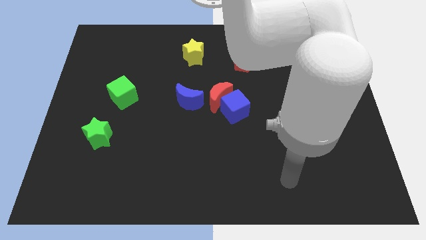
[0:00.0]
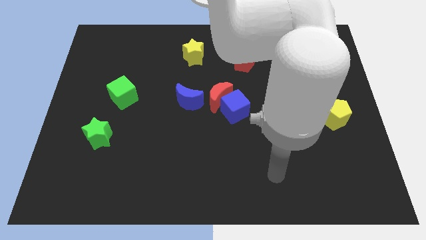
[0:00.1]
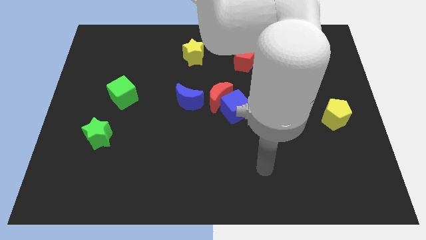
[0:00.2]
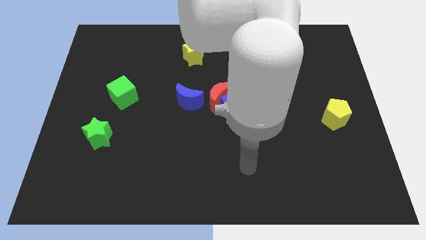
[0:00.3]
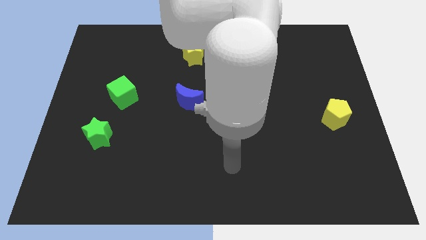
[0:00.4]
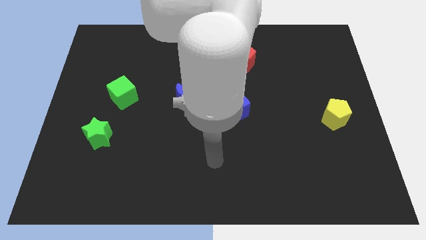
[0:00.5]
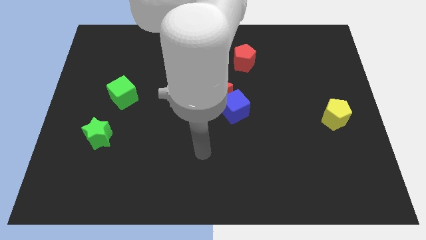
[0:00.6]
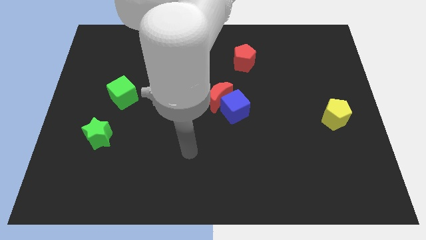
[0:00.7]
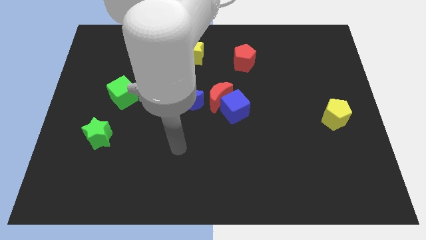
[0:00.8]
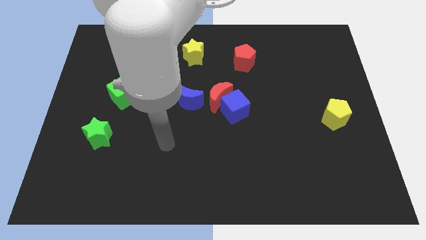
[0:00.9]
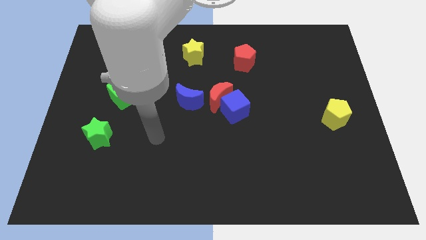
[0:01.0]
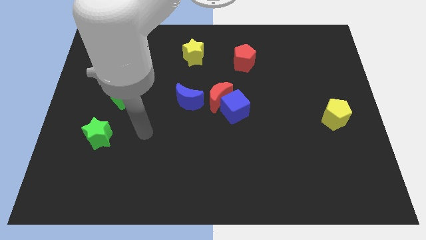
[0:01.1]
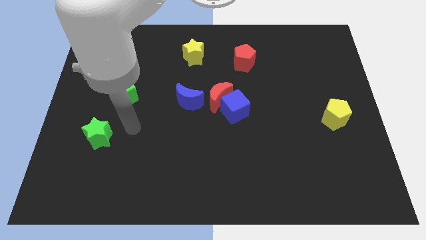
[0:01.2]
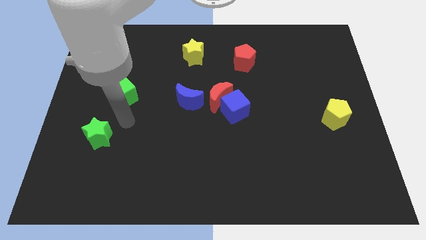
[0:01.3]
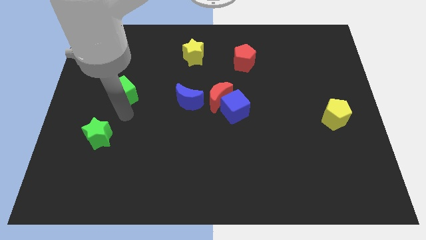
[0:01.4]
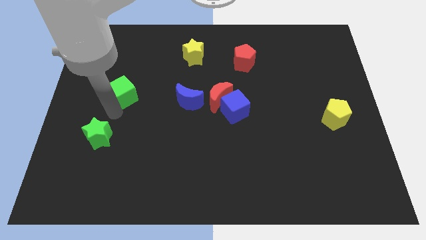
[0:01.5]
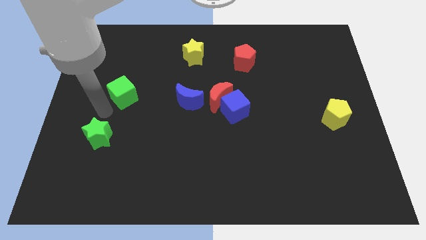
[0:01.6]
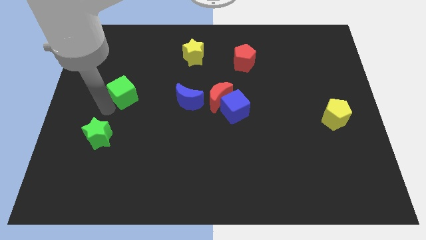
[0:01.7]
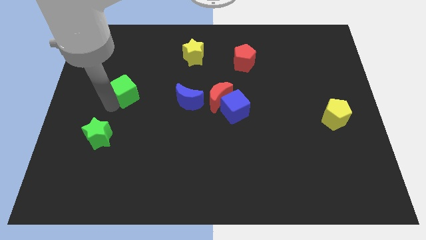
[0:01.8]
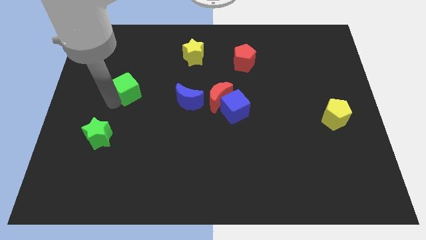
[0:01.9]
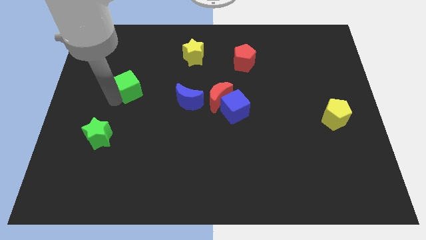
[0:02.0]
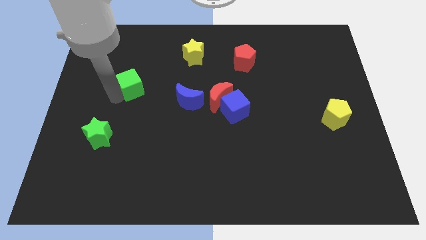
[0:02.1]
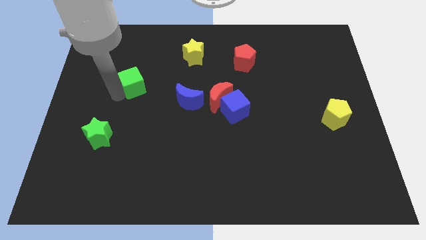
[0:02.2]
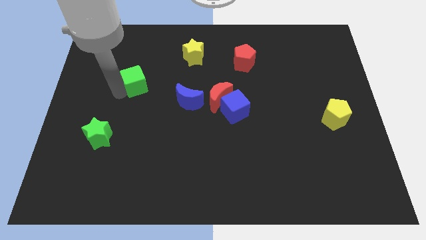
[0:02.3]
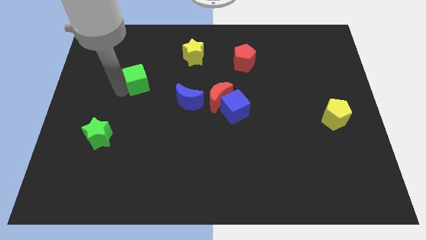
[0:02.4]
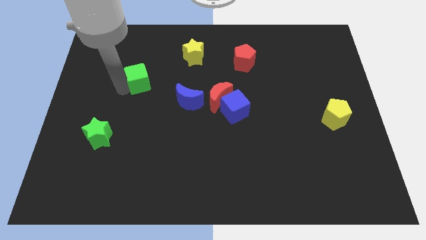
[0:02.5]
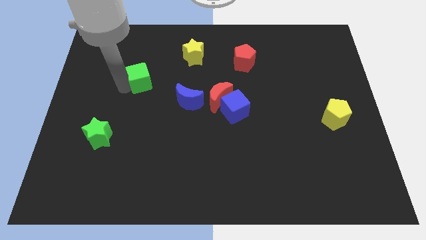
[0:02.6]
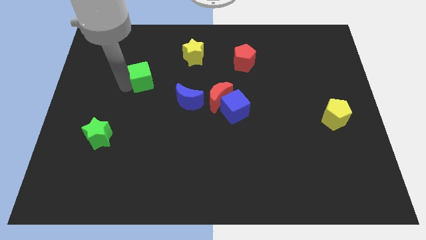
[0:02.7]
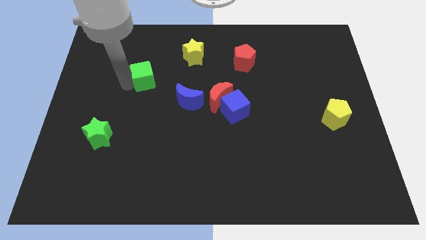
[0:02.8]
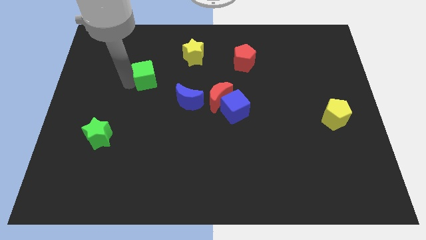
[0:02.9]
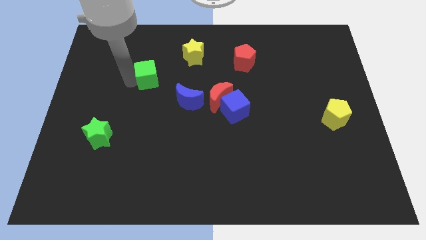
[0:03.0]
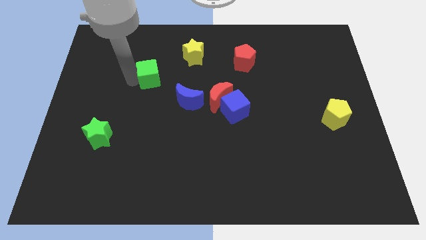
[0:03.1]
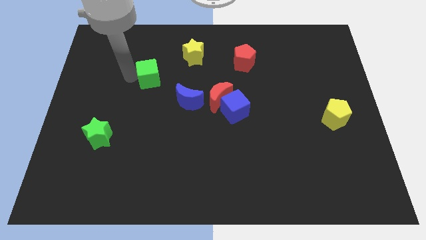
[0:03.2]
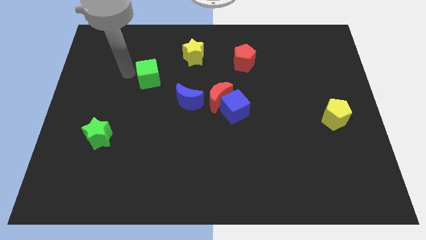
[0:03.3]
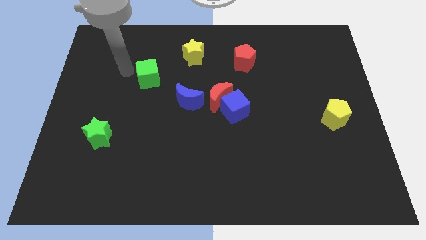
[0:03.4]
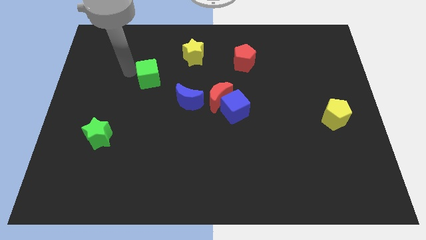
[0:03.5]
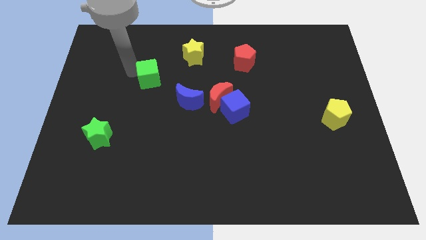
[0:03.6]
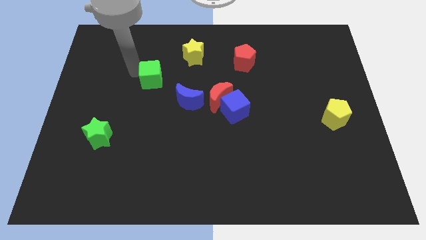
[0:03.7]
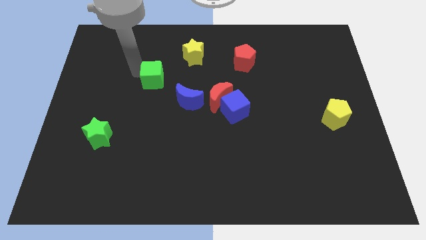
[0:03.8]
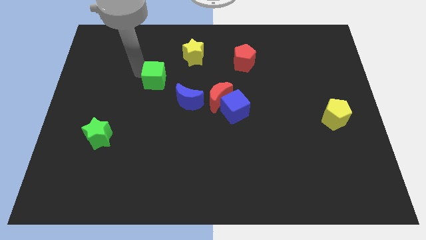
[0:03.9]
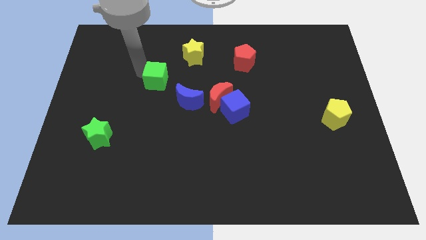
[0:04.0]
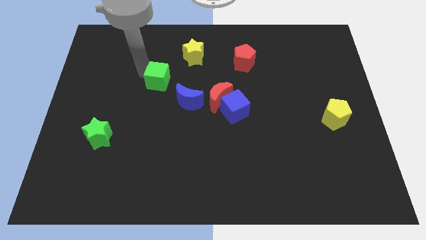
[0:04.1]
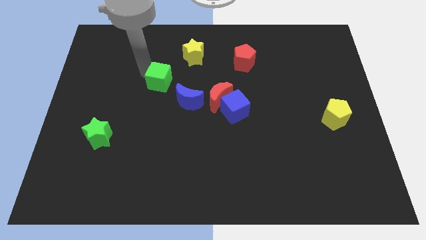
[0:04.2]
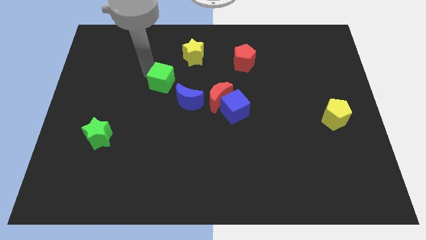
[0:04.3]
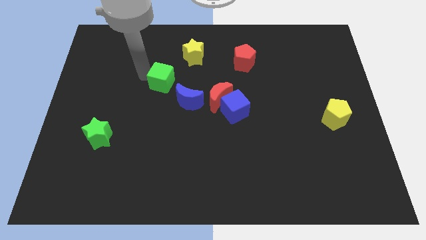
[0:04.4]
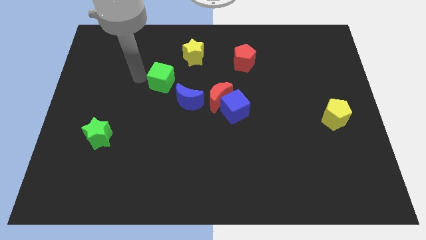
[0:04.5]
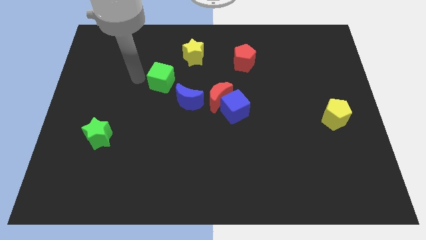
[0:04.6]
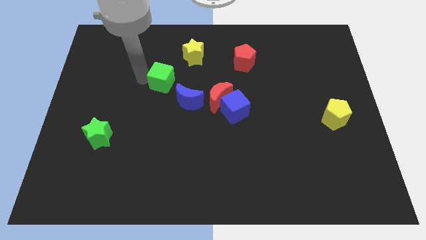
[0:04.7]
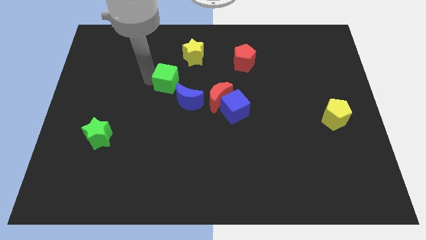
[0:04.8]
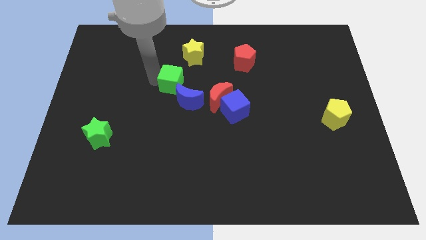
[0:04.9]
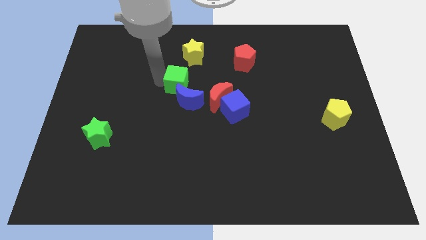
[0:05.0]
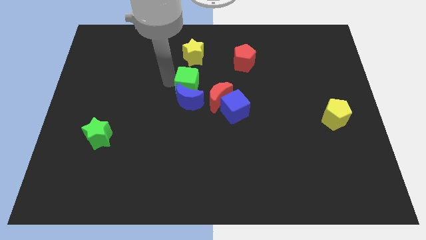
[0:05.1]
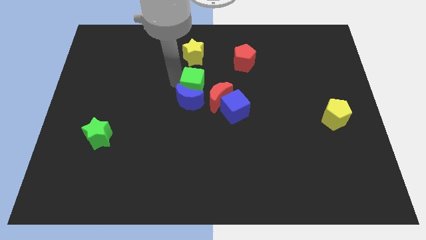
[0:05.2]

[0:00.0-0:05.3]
put the green cube diagonally up and to the left of the blue cube

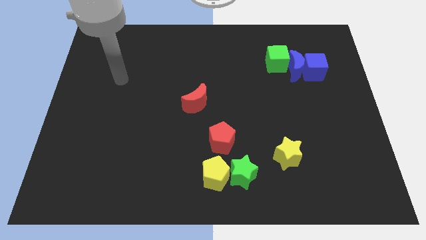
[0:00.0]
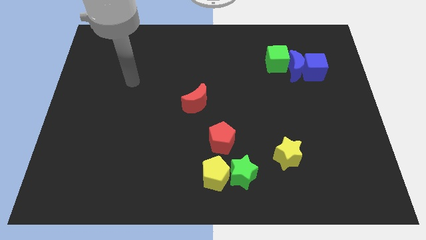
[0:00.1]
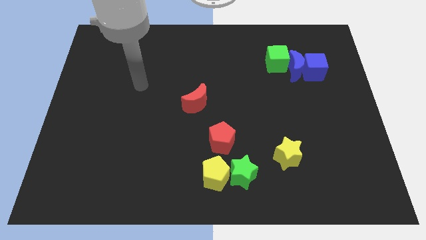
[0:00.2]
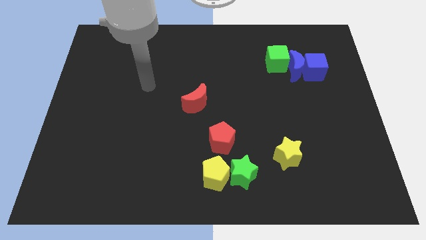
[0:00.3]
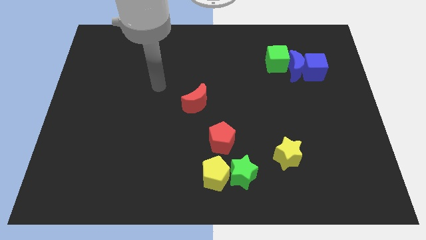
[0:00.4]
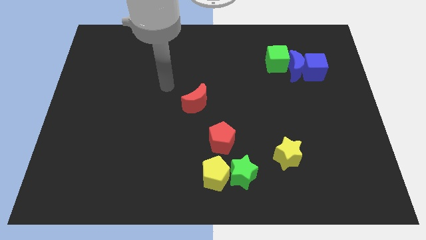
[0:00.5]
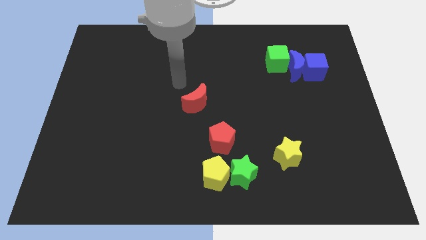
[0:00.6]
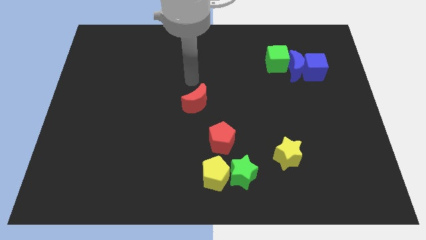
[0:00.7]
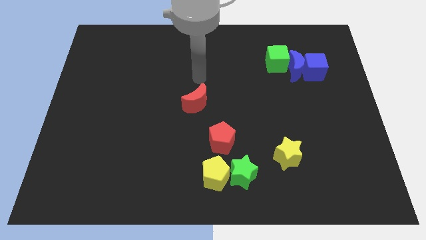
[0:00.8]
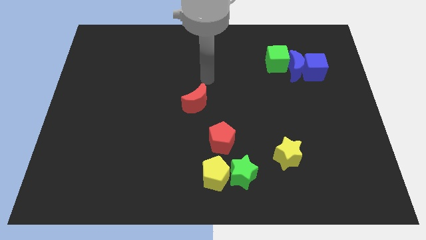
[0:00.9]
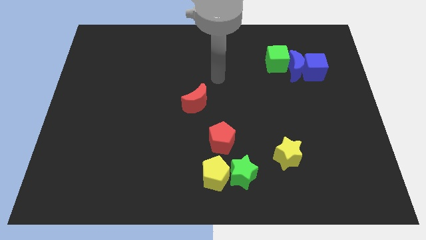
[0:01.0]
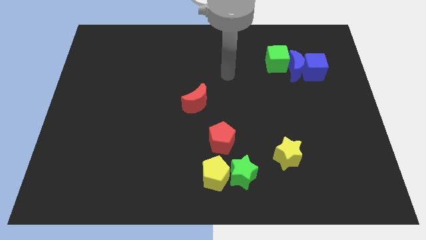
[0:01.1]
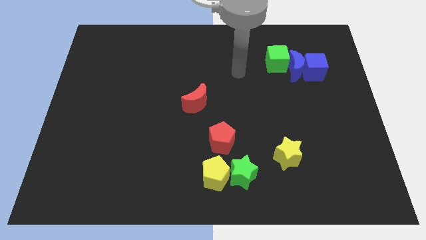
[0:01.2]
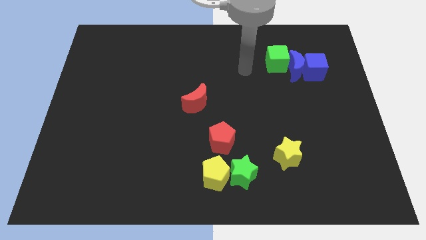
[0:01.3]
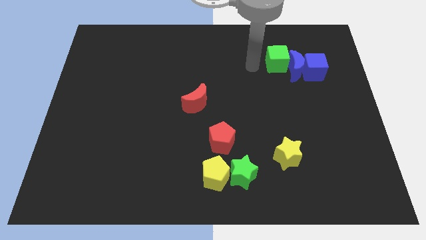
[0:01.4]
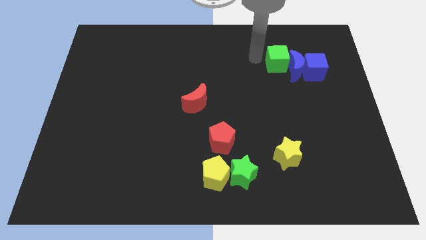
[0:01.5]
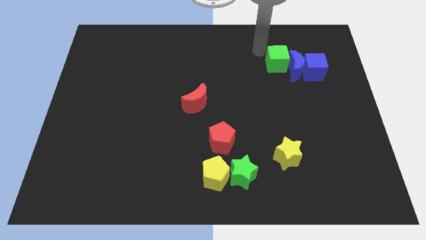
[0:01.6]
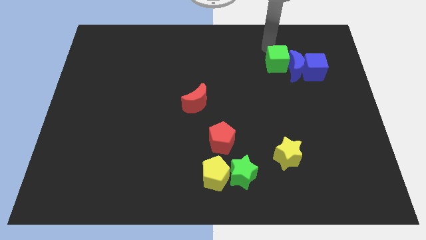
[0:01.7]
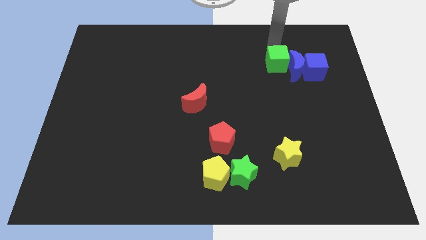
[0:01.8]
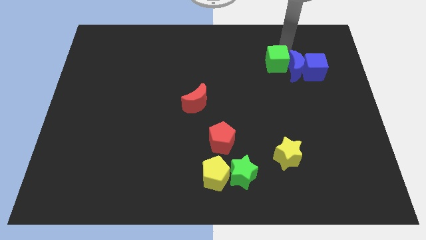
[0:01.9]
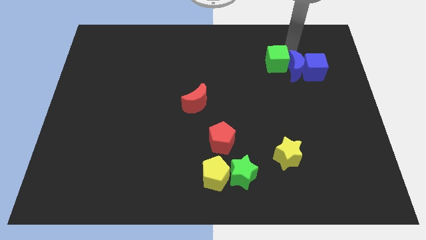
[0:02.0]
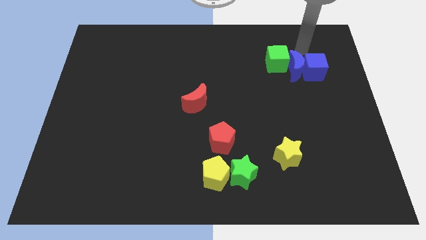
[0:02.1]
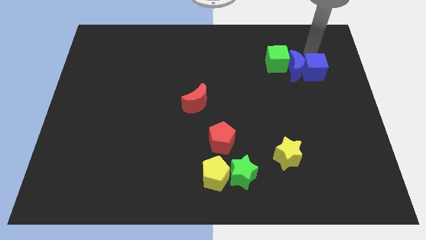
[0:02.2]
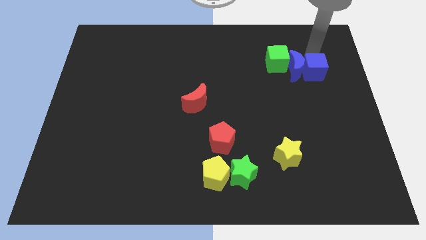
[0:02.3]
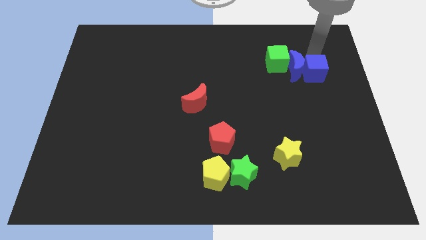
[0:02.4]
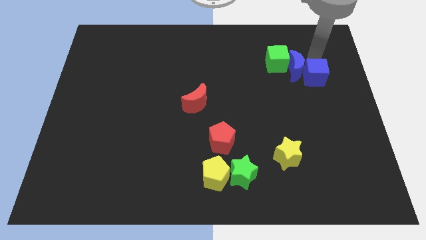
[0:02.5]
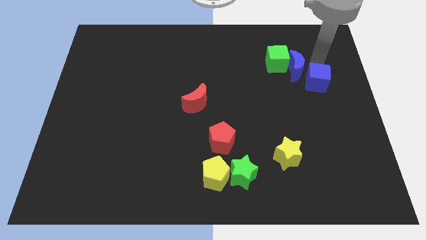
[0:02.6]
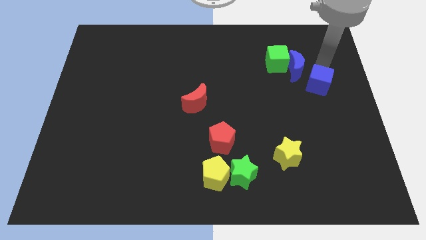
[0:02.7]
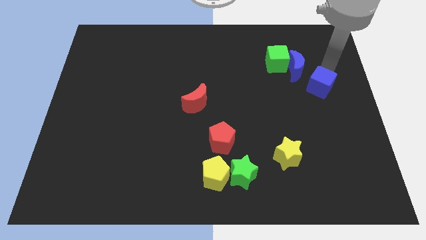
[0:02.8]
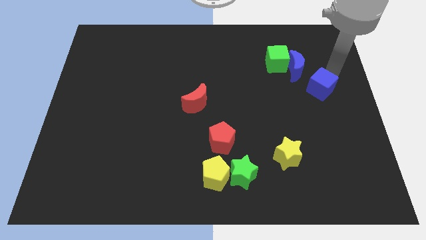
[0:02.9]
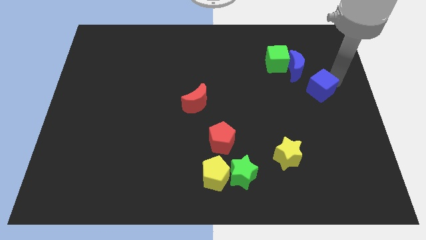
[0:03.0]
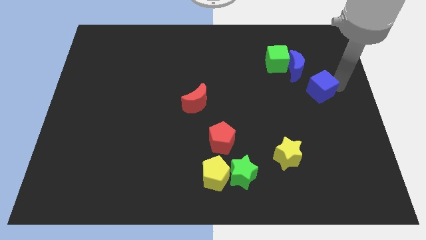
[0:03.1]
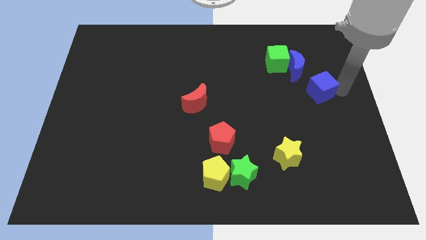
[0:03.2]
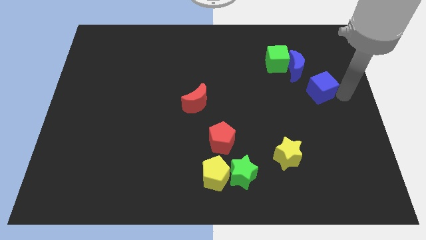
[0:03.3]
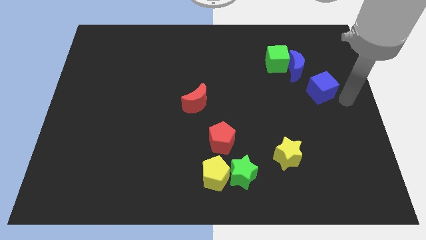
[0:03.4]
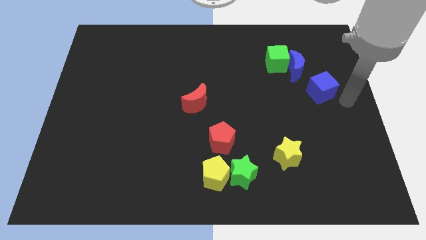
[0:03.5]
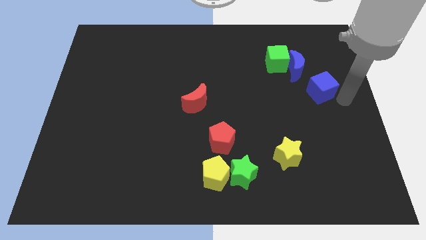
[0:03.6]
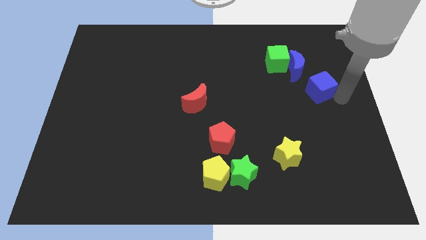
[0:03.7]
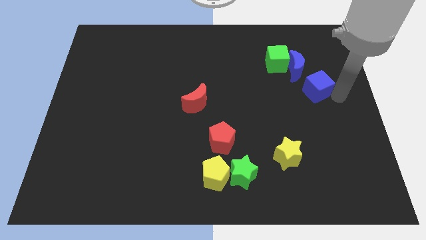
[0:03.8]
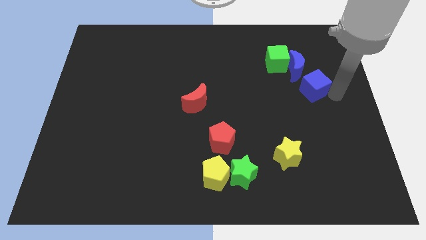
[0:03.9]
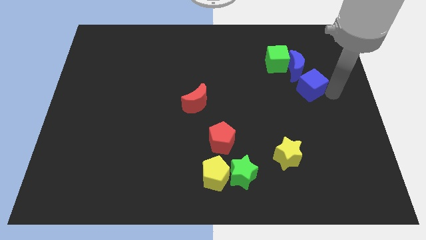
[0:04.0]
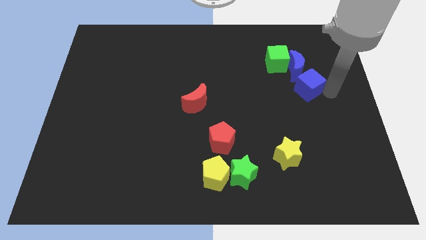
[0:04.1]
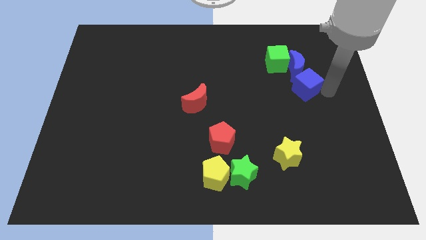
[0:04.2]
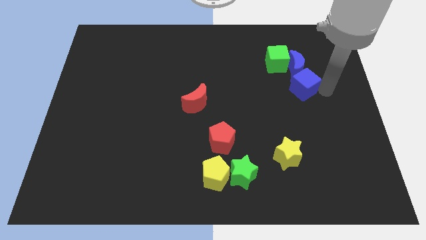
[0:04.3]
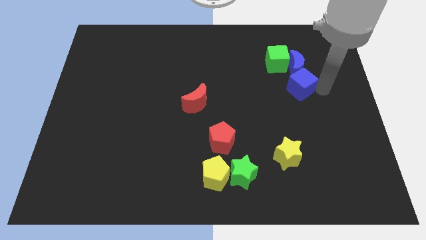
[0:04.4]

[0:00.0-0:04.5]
move the blue cube to the bottom left of the blue moon
